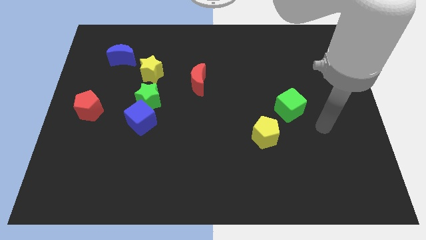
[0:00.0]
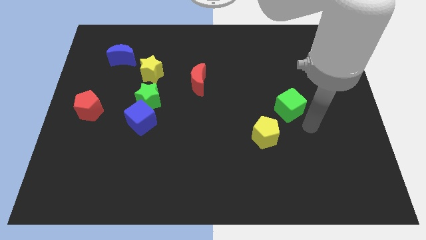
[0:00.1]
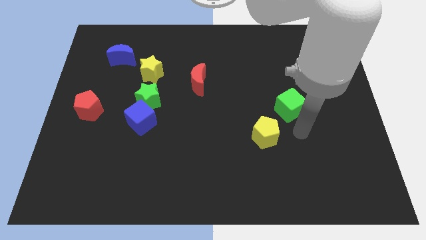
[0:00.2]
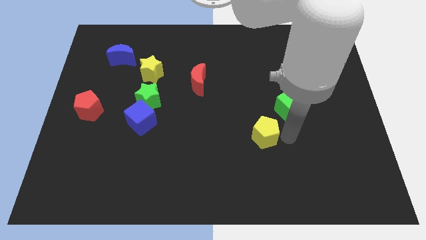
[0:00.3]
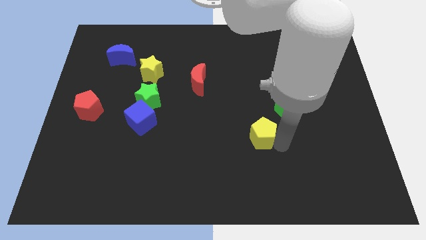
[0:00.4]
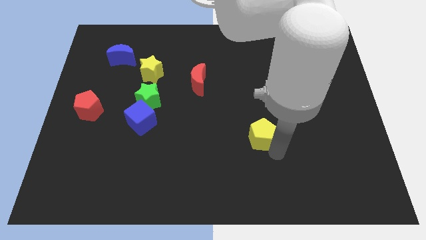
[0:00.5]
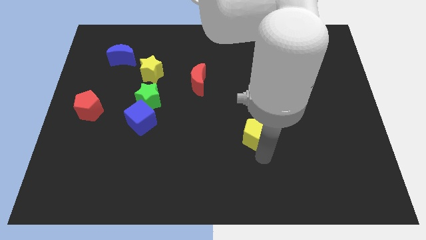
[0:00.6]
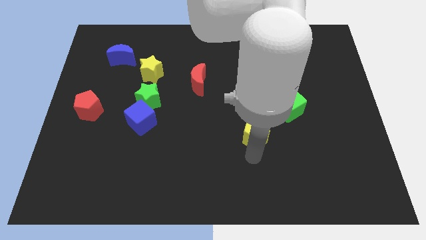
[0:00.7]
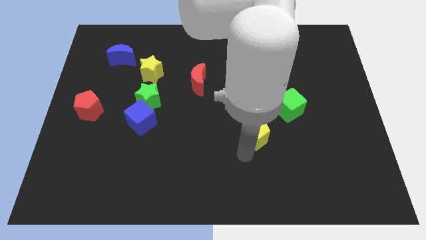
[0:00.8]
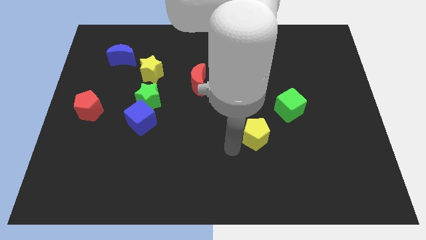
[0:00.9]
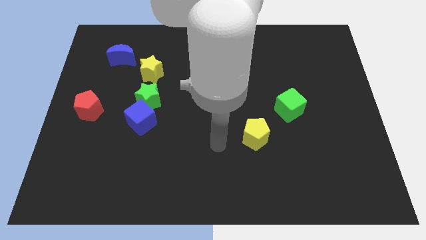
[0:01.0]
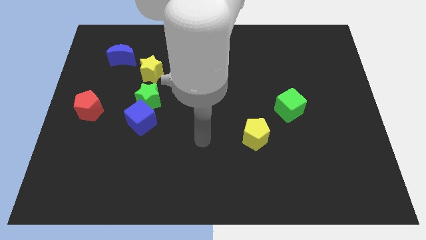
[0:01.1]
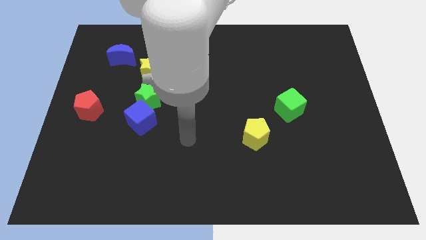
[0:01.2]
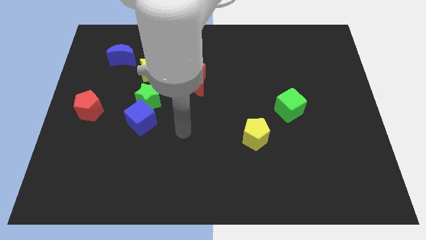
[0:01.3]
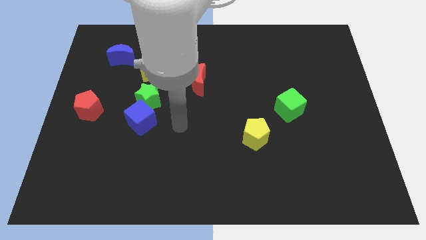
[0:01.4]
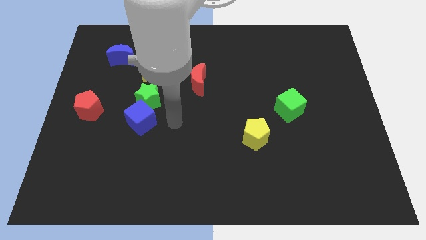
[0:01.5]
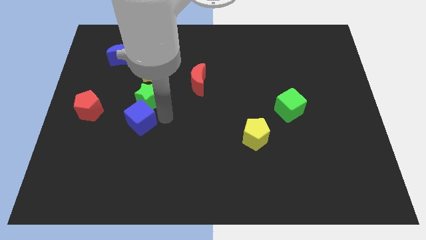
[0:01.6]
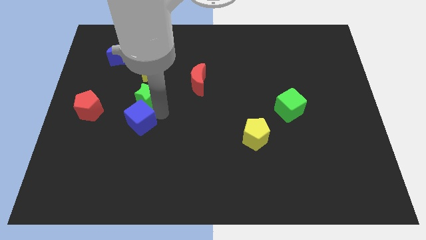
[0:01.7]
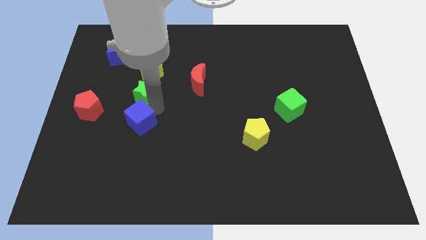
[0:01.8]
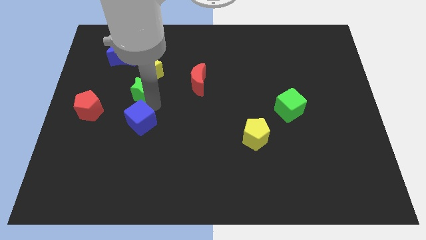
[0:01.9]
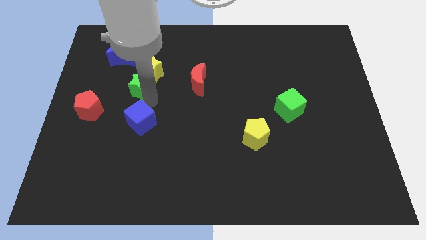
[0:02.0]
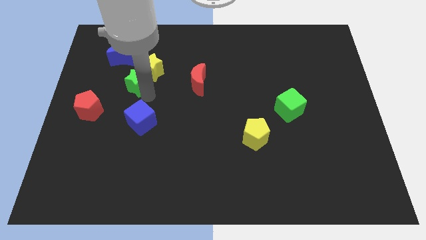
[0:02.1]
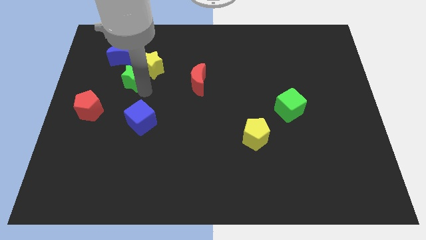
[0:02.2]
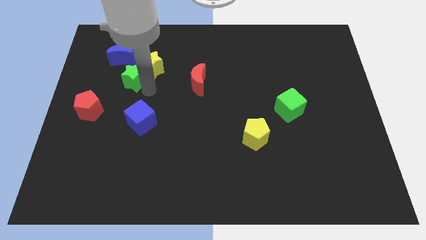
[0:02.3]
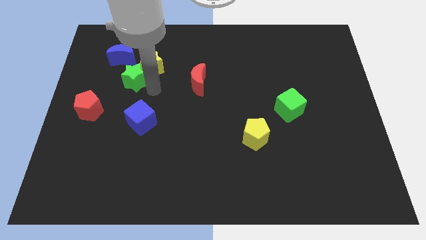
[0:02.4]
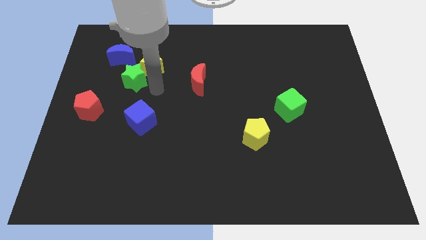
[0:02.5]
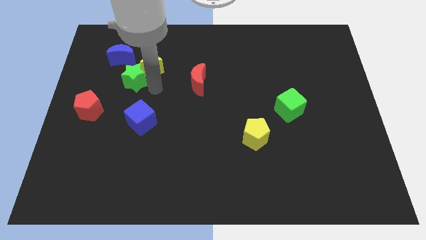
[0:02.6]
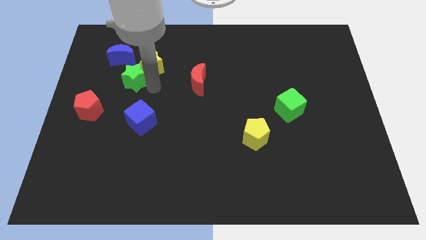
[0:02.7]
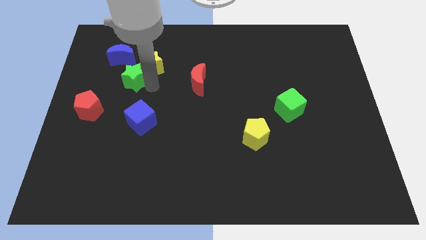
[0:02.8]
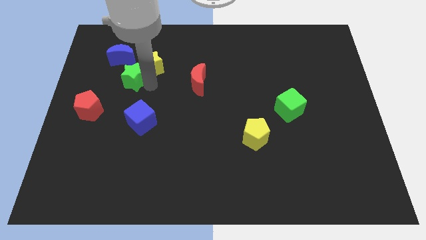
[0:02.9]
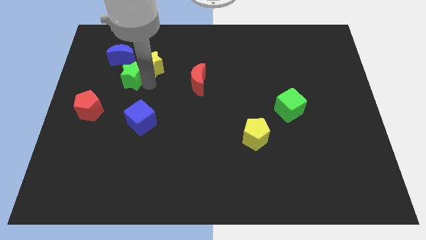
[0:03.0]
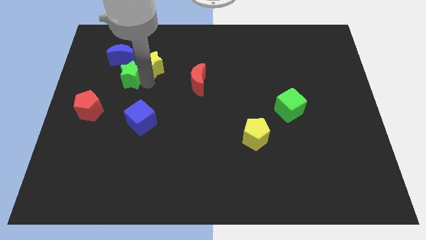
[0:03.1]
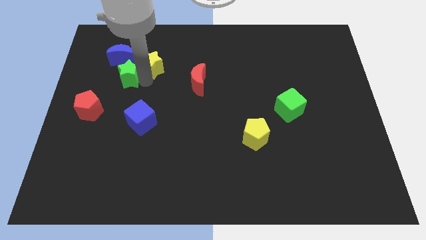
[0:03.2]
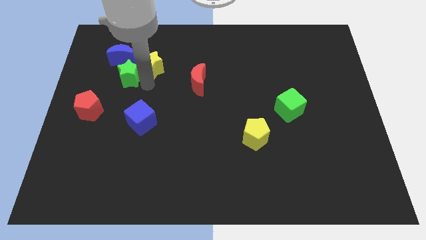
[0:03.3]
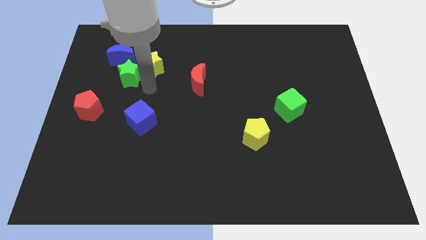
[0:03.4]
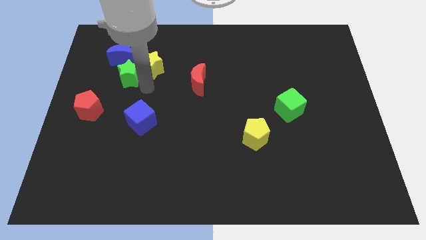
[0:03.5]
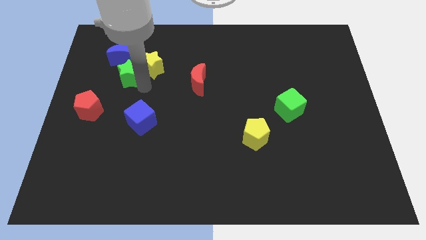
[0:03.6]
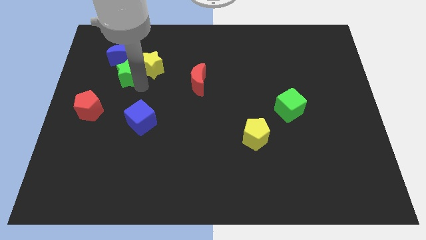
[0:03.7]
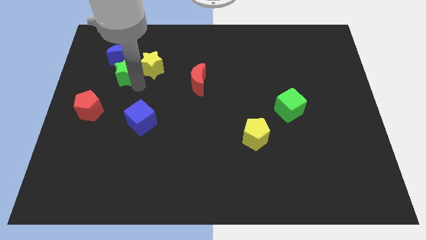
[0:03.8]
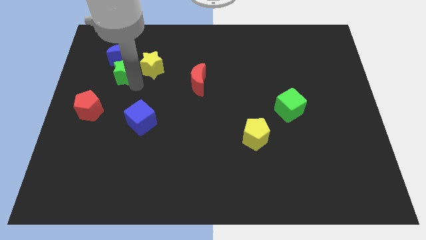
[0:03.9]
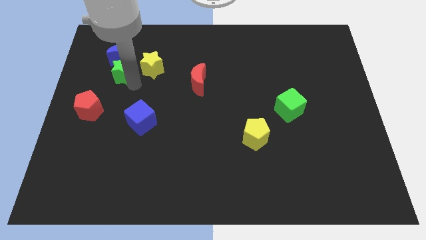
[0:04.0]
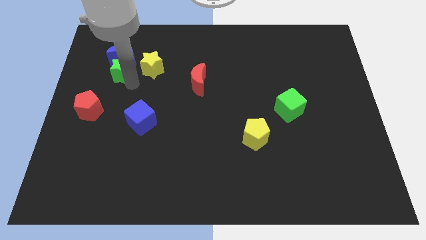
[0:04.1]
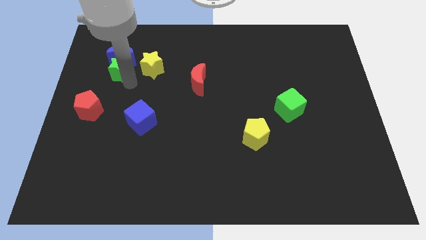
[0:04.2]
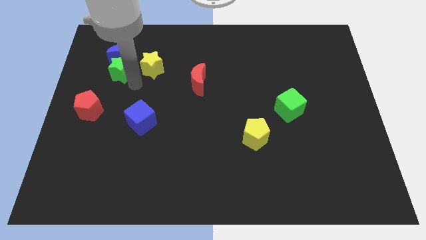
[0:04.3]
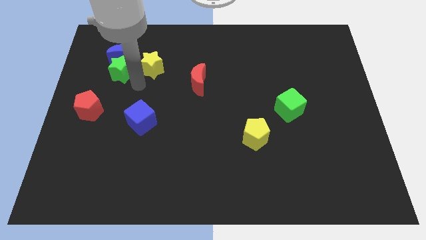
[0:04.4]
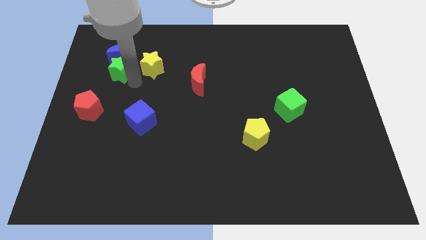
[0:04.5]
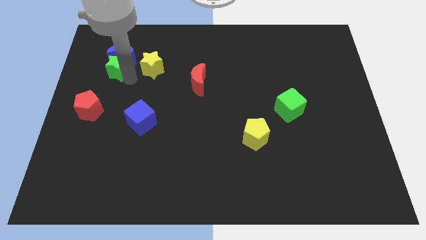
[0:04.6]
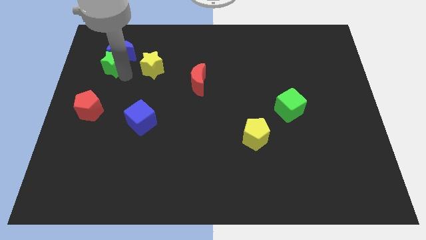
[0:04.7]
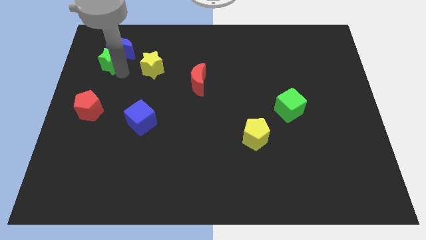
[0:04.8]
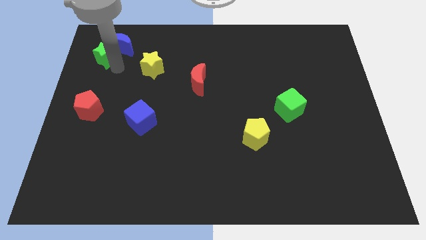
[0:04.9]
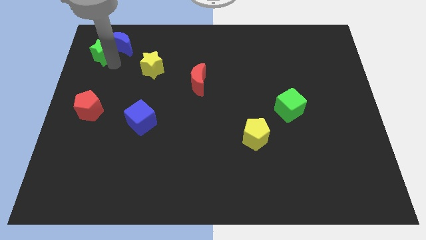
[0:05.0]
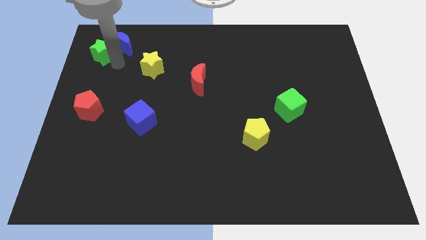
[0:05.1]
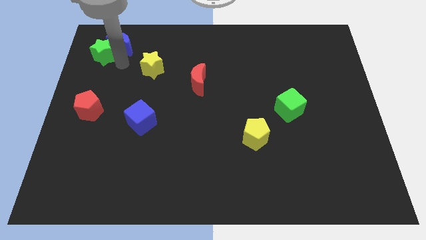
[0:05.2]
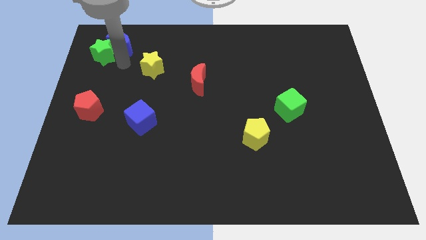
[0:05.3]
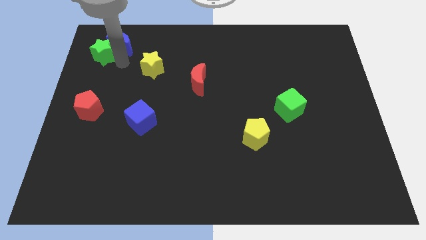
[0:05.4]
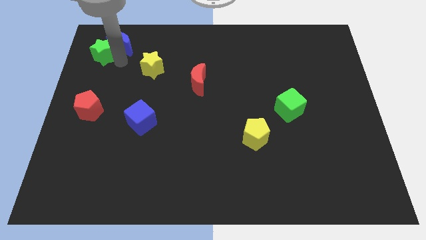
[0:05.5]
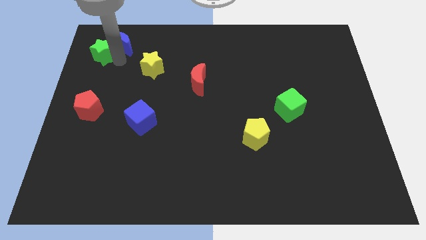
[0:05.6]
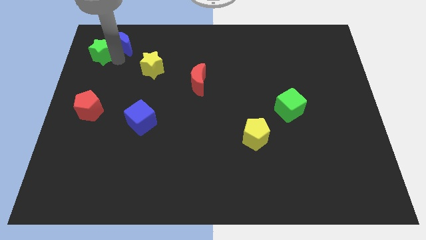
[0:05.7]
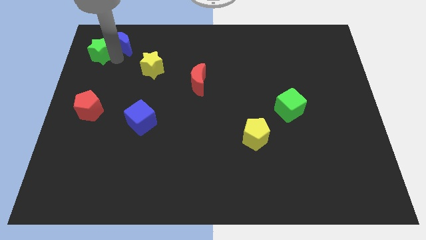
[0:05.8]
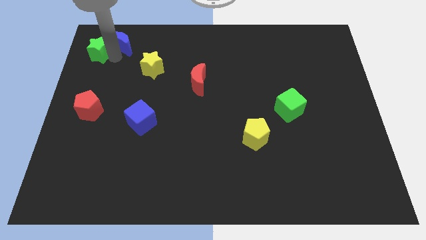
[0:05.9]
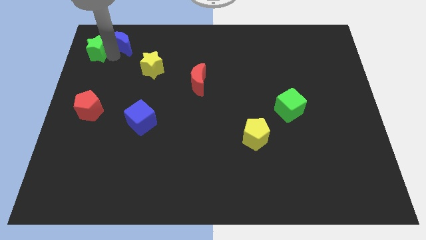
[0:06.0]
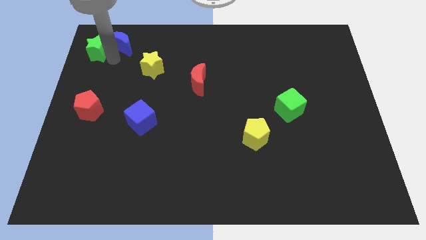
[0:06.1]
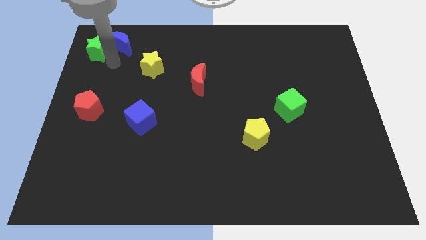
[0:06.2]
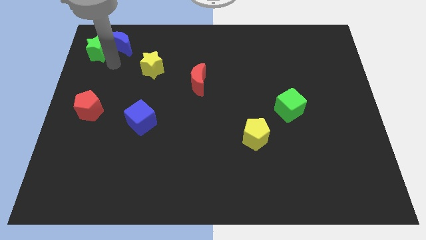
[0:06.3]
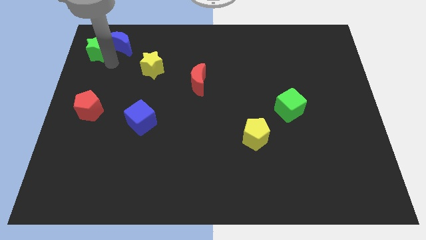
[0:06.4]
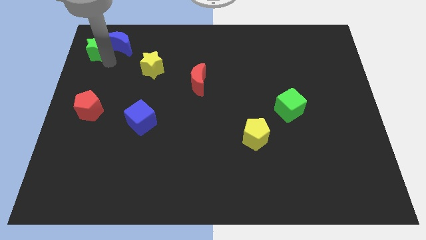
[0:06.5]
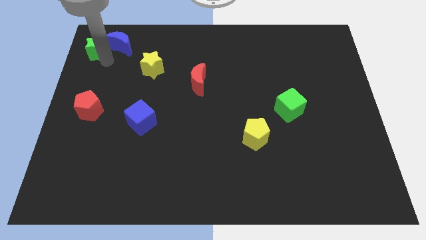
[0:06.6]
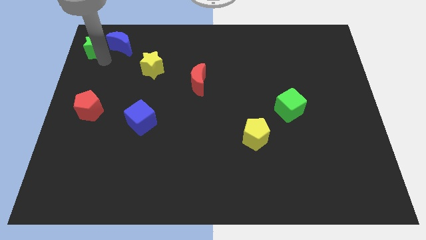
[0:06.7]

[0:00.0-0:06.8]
move the green star to the top left of the board

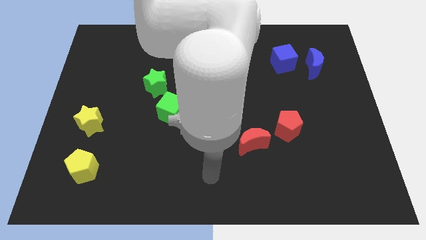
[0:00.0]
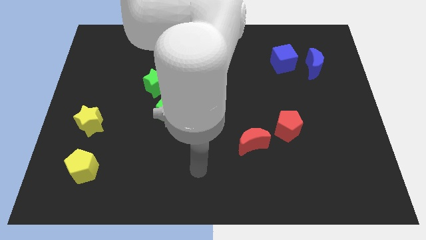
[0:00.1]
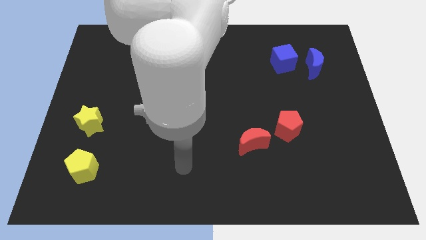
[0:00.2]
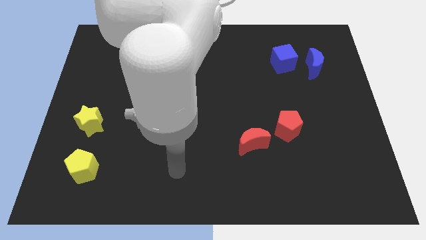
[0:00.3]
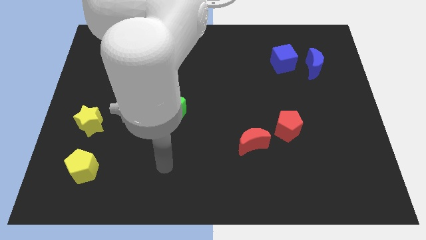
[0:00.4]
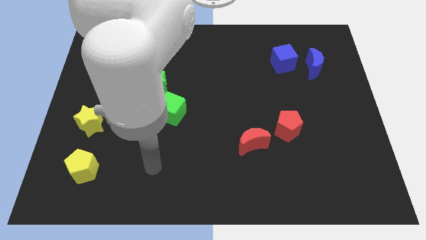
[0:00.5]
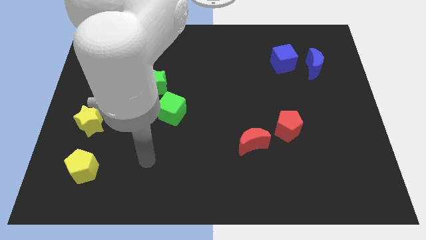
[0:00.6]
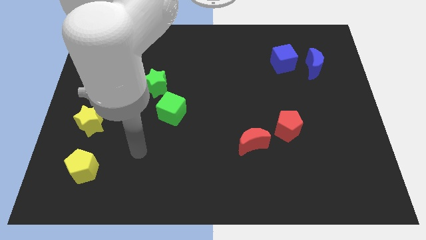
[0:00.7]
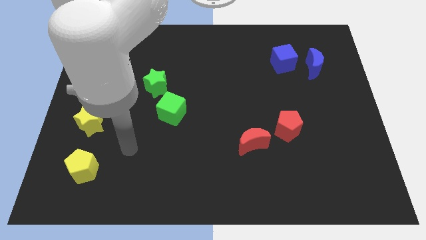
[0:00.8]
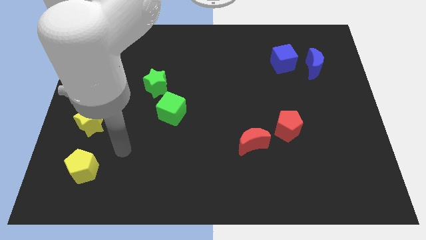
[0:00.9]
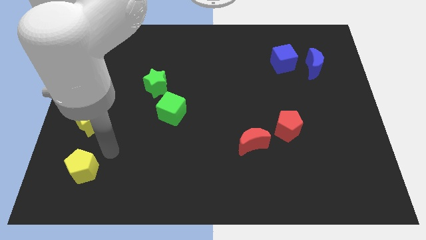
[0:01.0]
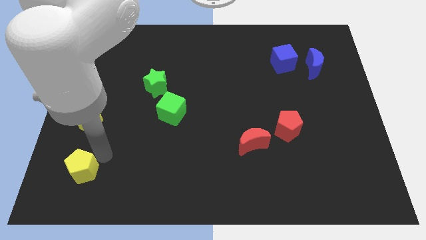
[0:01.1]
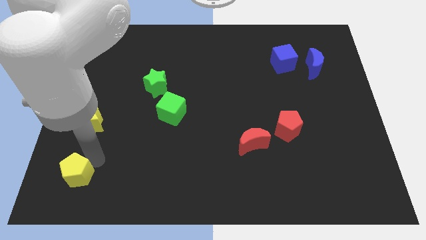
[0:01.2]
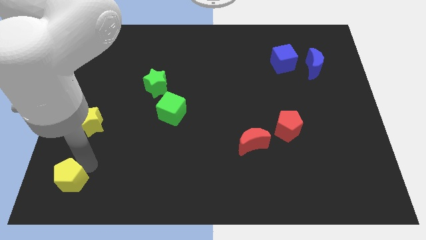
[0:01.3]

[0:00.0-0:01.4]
slide the yellow pentagon to the lower left corner

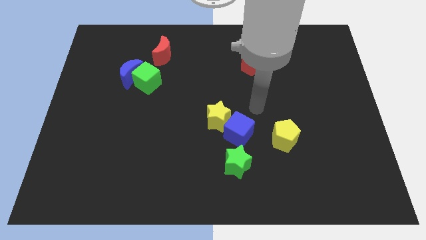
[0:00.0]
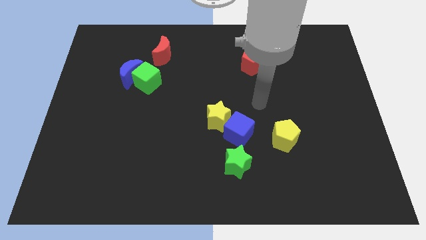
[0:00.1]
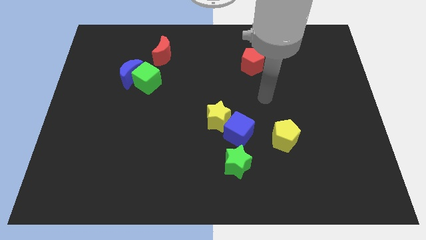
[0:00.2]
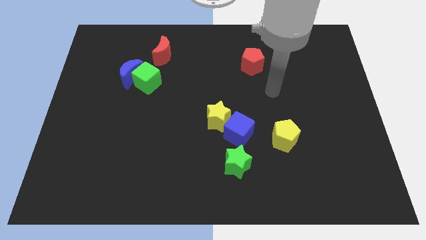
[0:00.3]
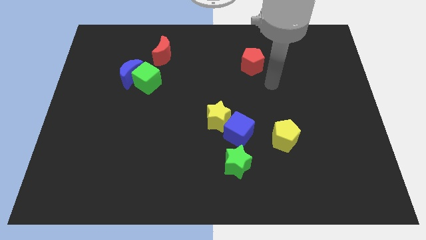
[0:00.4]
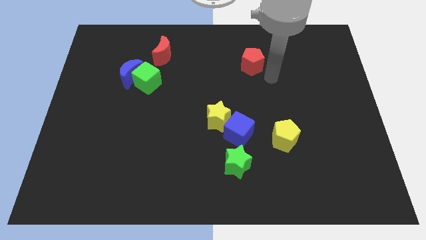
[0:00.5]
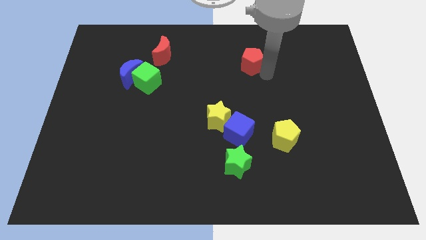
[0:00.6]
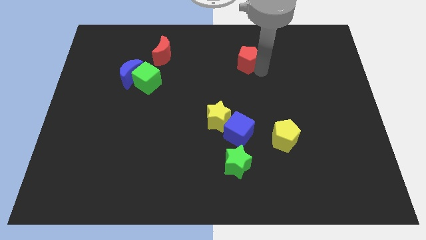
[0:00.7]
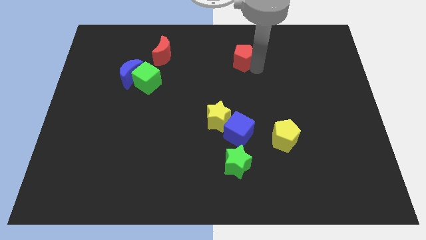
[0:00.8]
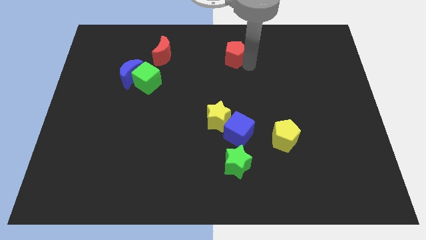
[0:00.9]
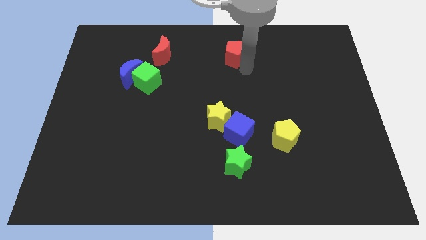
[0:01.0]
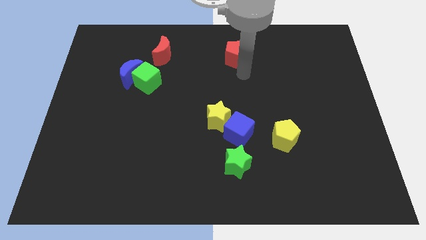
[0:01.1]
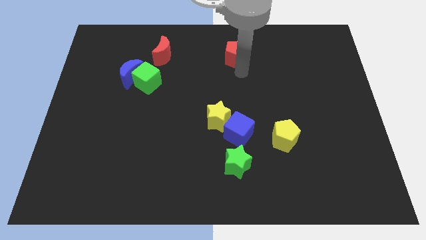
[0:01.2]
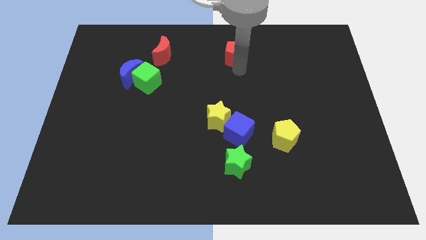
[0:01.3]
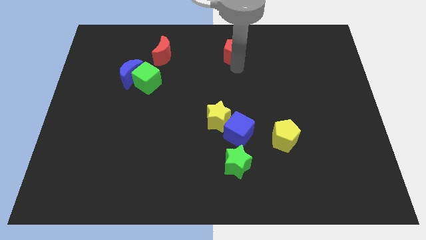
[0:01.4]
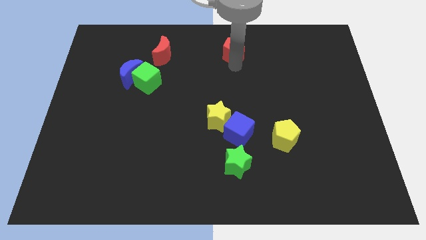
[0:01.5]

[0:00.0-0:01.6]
move the red pentagon to the top side
